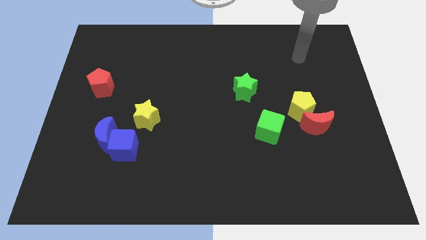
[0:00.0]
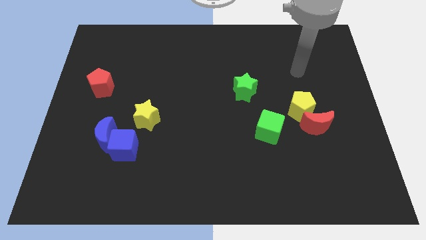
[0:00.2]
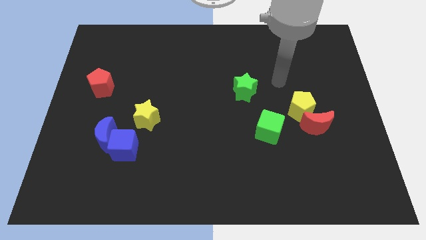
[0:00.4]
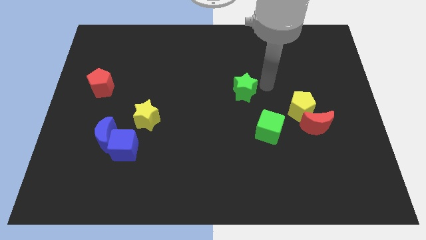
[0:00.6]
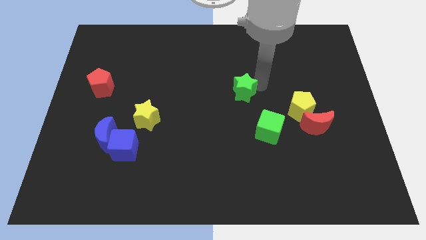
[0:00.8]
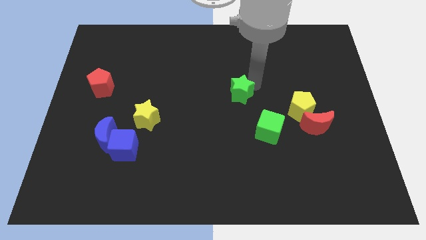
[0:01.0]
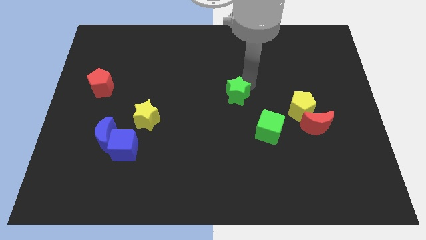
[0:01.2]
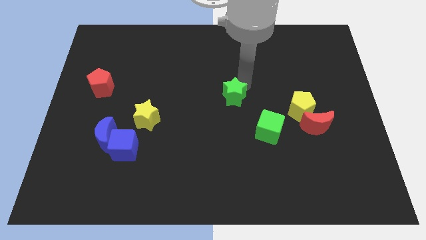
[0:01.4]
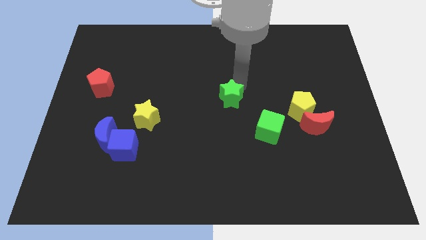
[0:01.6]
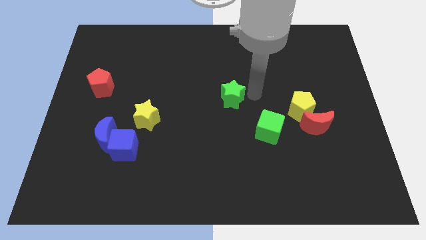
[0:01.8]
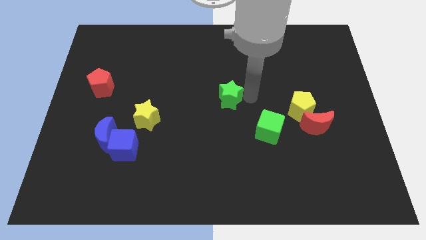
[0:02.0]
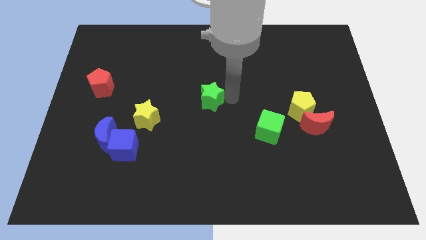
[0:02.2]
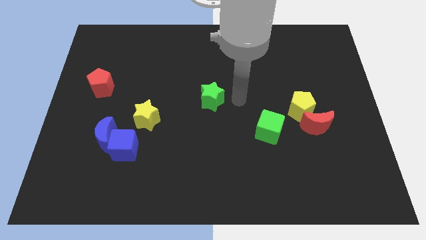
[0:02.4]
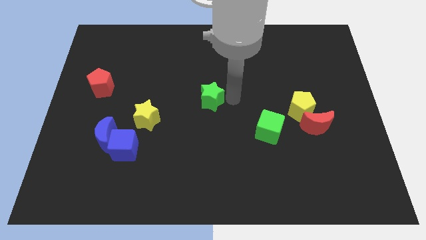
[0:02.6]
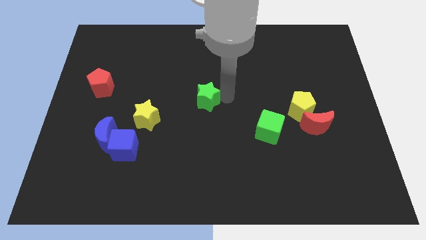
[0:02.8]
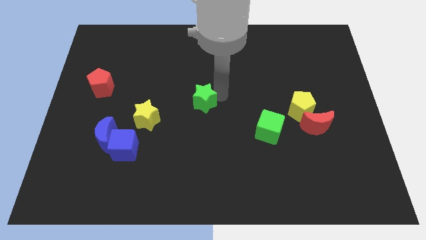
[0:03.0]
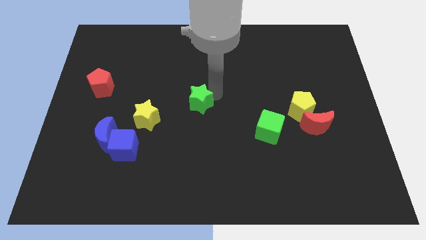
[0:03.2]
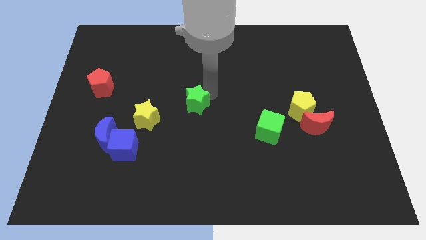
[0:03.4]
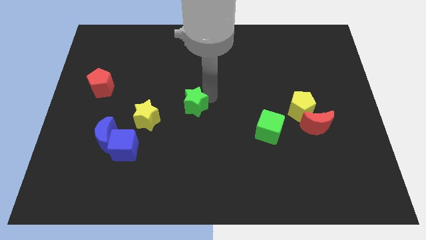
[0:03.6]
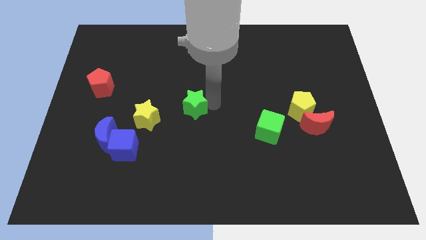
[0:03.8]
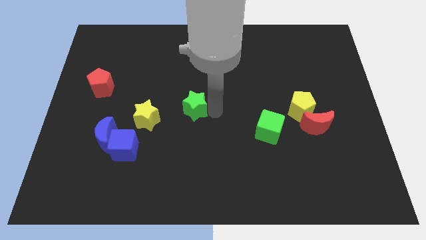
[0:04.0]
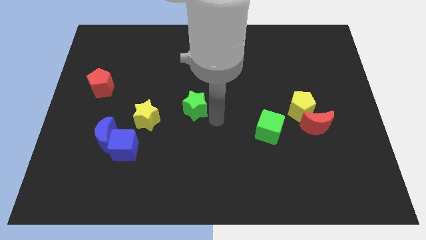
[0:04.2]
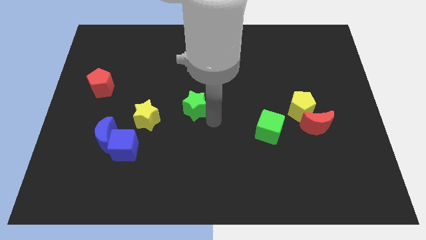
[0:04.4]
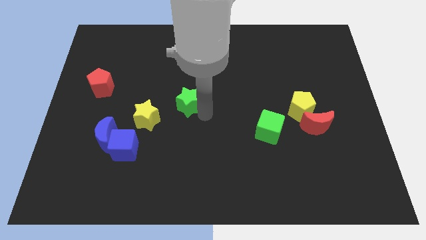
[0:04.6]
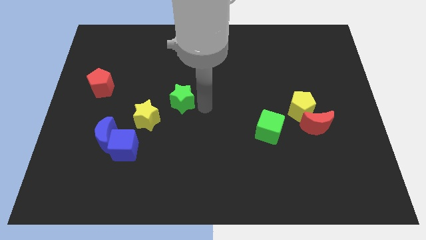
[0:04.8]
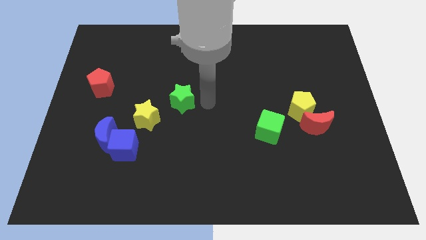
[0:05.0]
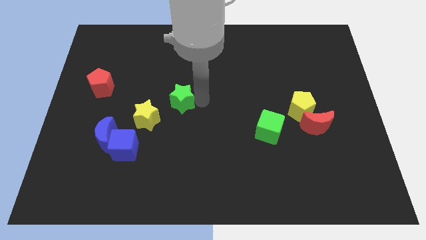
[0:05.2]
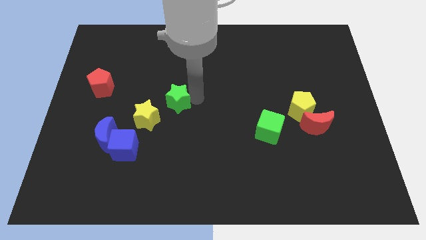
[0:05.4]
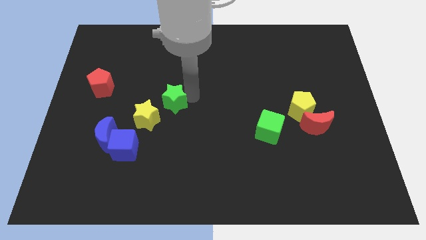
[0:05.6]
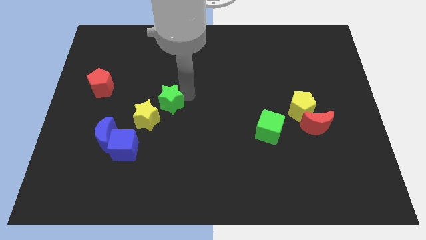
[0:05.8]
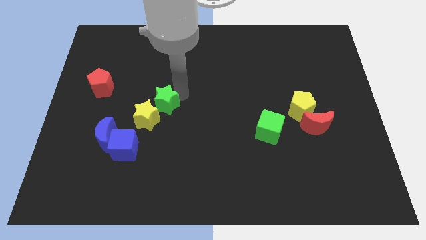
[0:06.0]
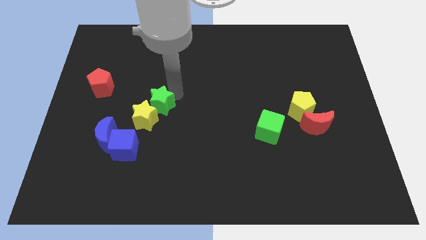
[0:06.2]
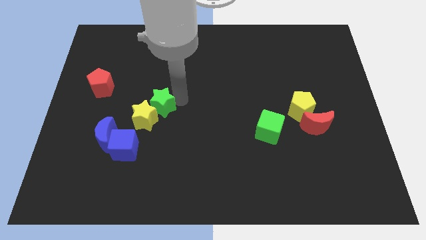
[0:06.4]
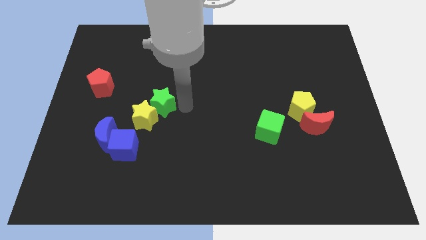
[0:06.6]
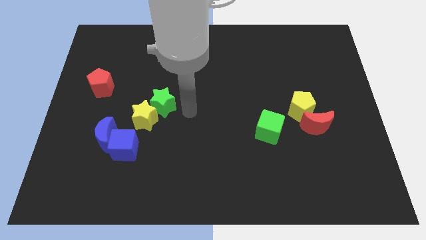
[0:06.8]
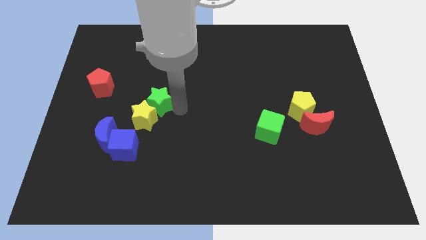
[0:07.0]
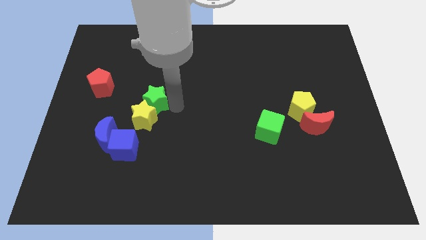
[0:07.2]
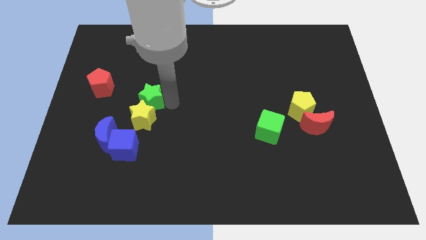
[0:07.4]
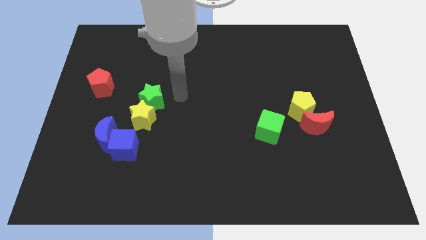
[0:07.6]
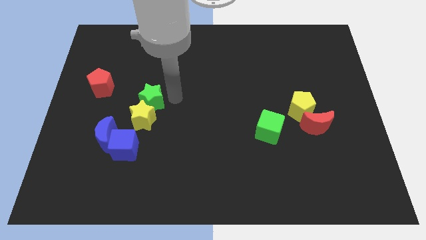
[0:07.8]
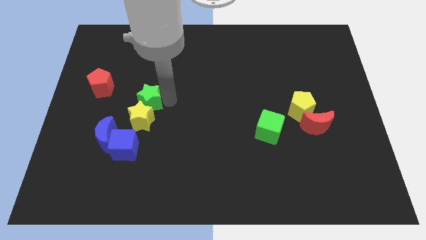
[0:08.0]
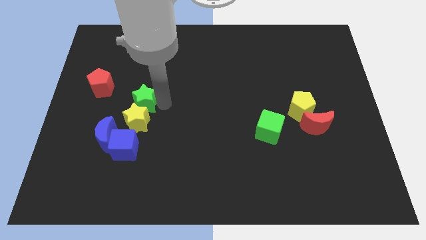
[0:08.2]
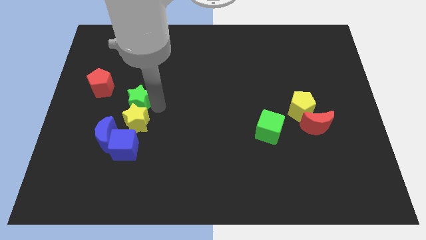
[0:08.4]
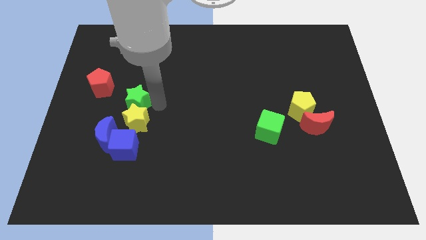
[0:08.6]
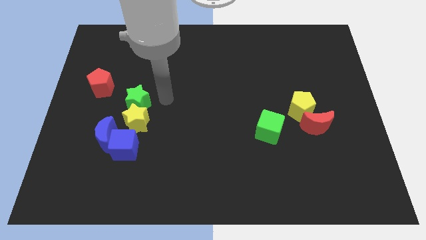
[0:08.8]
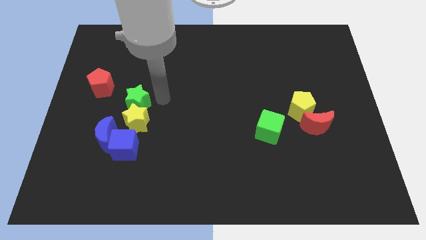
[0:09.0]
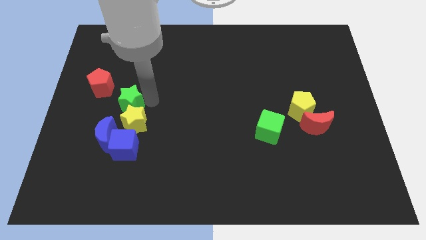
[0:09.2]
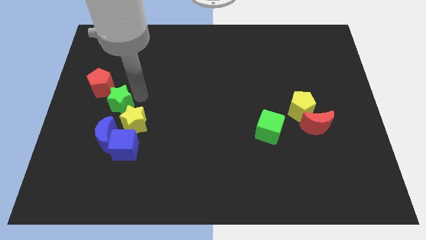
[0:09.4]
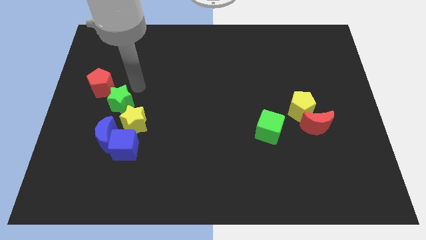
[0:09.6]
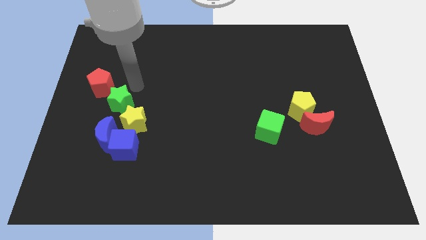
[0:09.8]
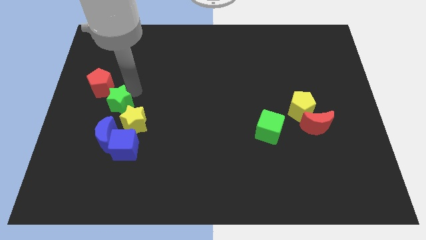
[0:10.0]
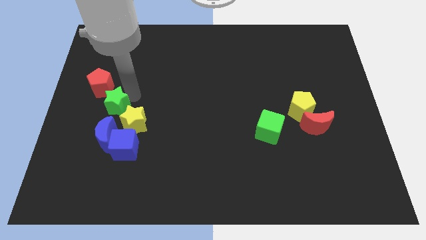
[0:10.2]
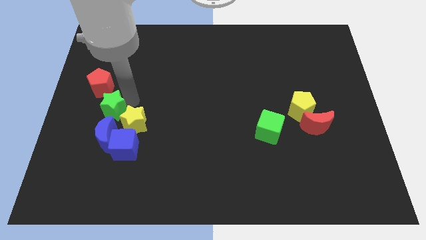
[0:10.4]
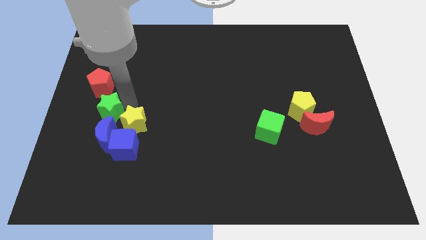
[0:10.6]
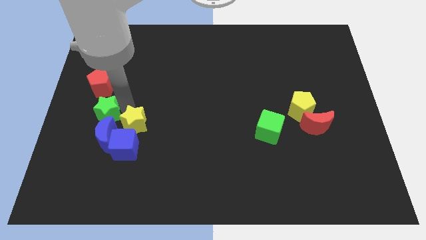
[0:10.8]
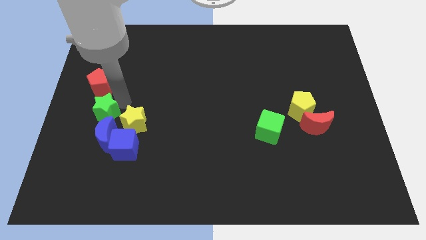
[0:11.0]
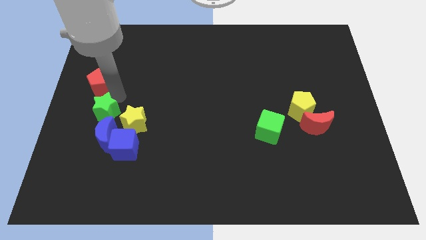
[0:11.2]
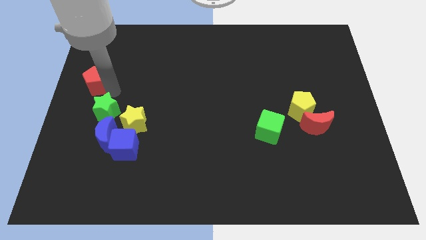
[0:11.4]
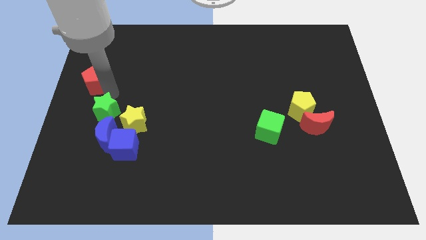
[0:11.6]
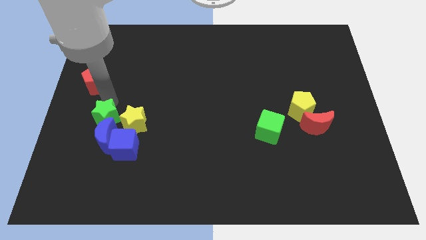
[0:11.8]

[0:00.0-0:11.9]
push the green star close to the blue moon

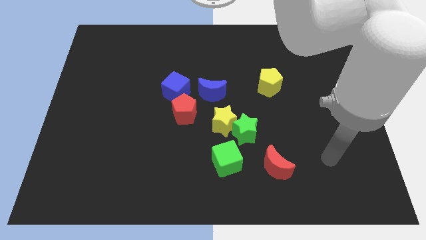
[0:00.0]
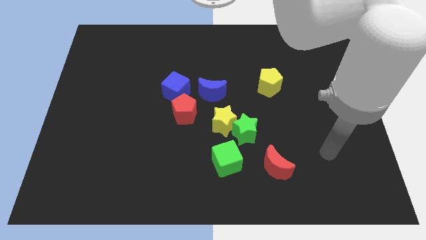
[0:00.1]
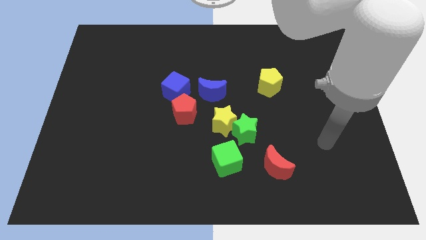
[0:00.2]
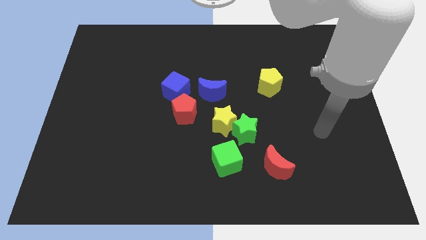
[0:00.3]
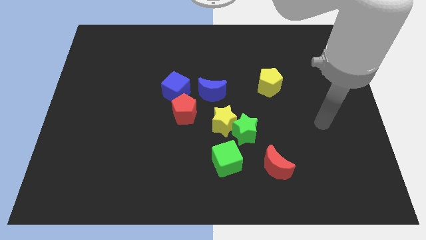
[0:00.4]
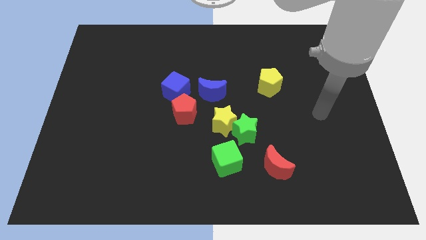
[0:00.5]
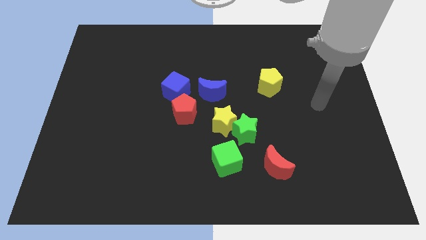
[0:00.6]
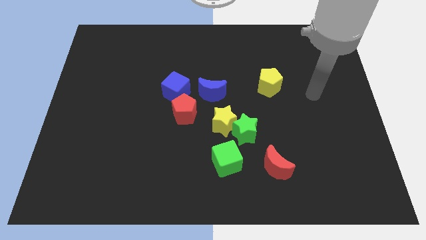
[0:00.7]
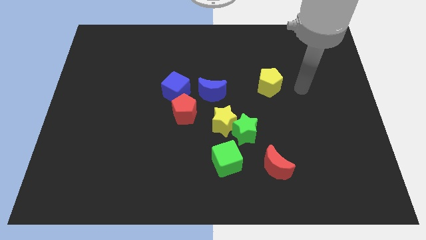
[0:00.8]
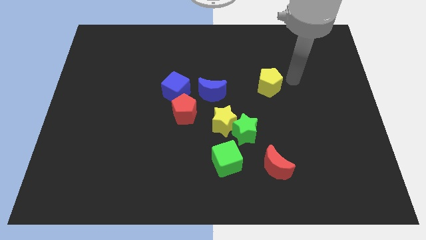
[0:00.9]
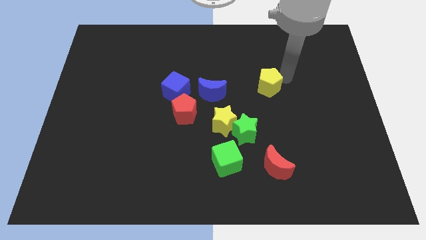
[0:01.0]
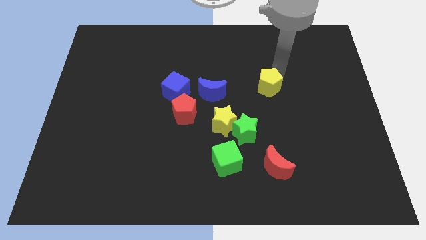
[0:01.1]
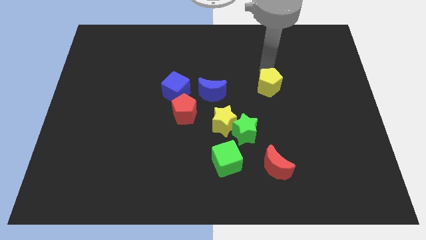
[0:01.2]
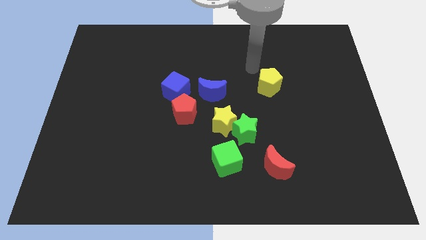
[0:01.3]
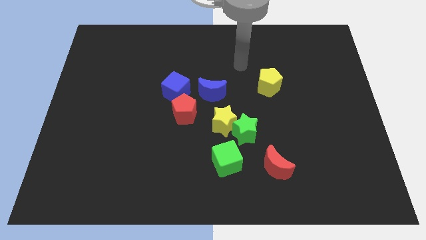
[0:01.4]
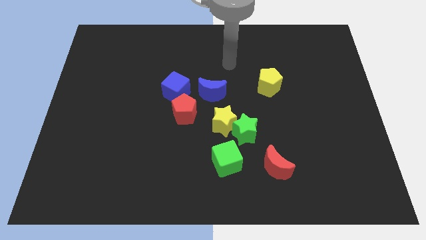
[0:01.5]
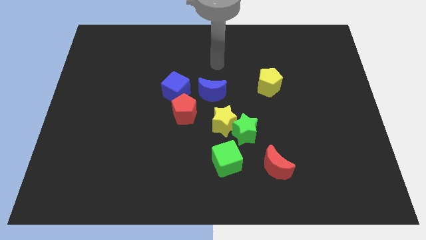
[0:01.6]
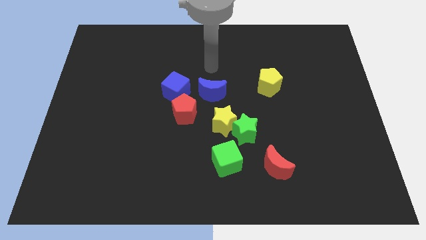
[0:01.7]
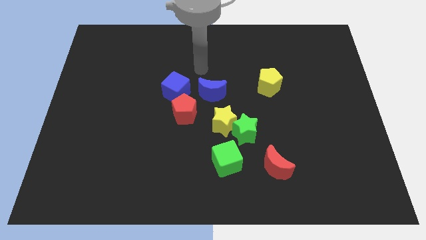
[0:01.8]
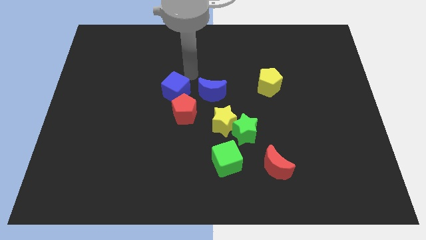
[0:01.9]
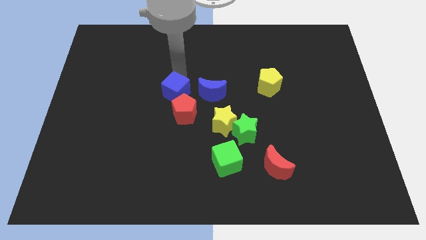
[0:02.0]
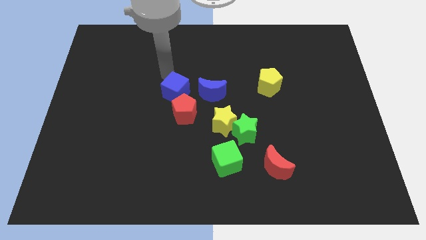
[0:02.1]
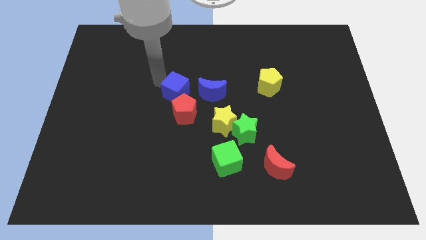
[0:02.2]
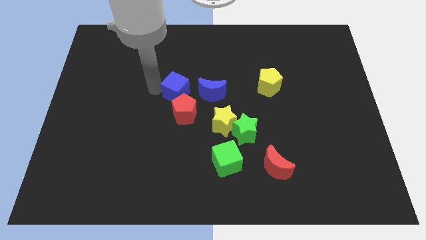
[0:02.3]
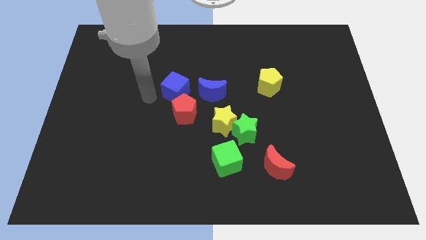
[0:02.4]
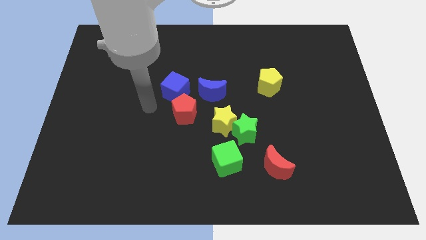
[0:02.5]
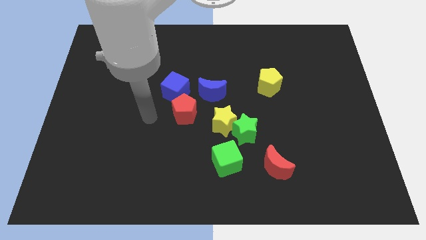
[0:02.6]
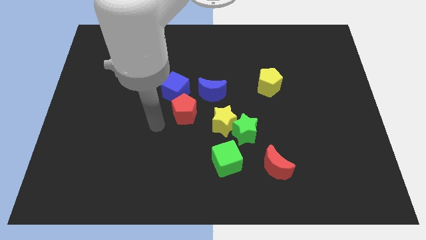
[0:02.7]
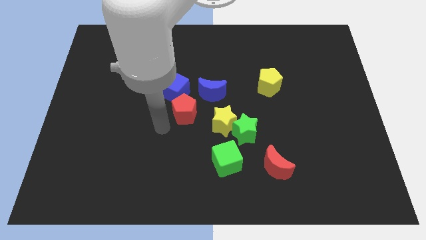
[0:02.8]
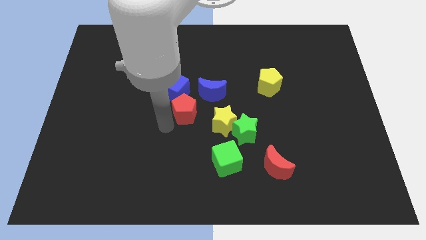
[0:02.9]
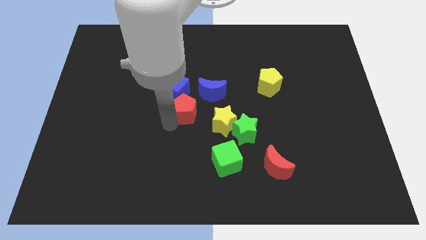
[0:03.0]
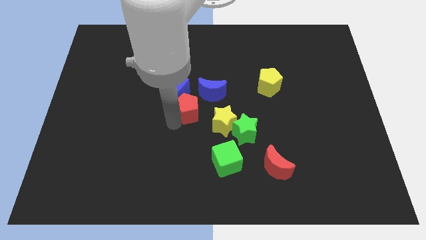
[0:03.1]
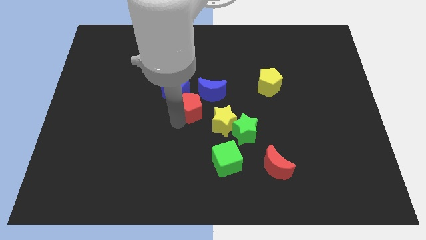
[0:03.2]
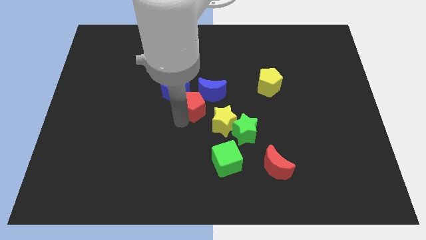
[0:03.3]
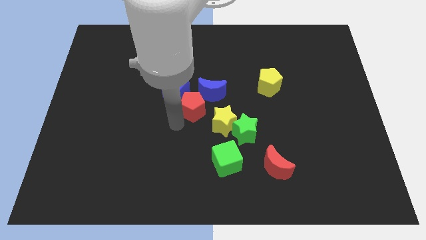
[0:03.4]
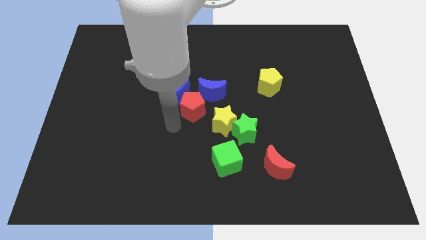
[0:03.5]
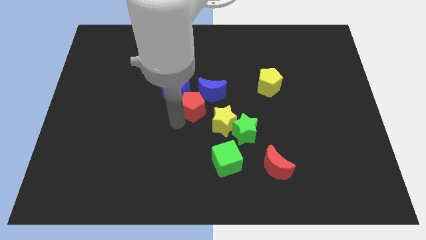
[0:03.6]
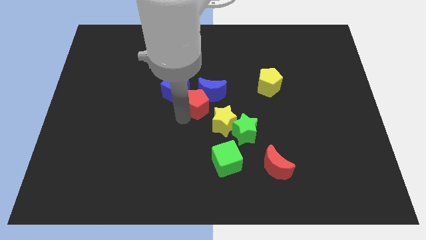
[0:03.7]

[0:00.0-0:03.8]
put the red pentagon to the blue moon
